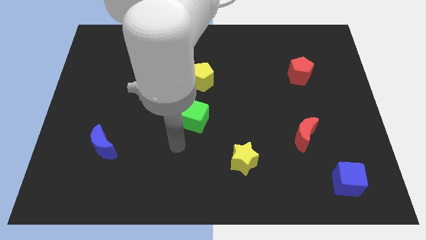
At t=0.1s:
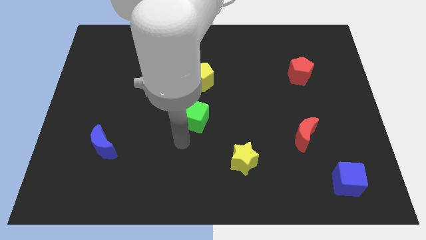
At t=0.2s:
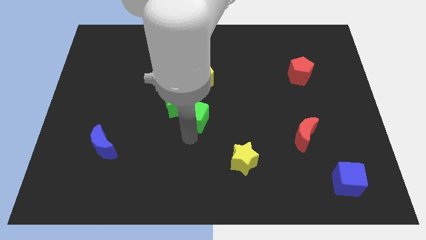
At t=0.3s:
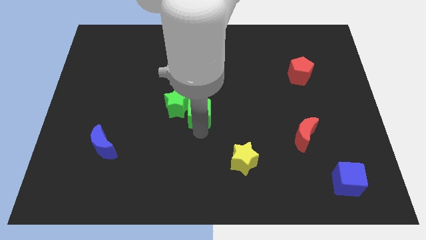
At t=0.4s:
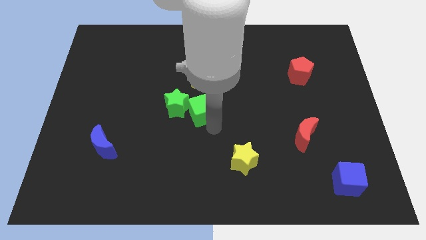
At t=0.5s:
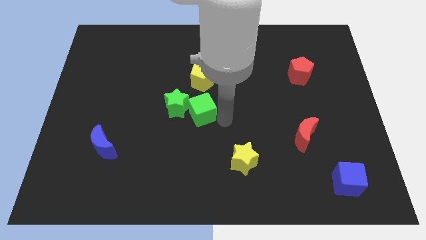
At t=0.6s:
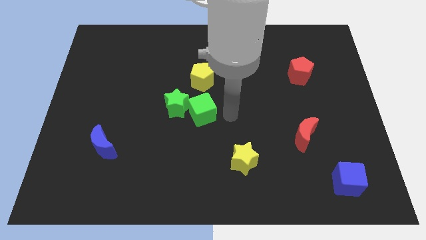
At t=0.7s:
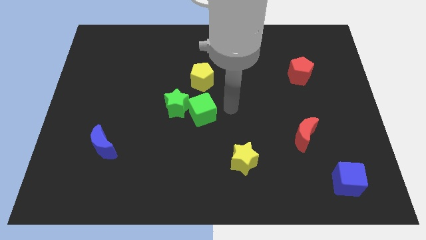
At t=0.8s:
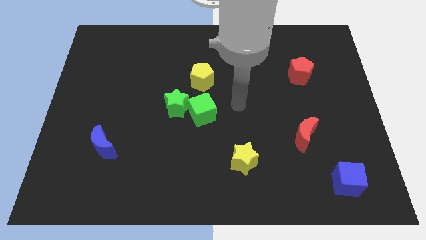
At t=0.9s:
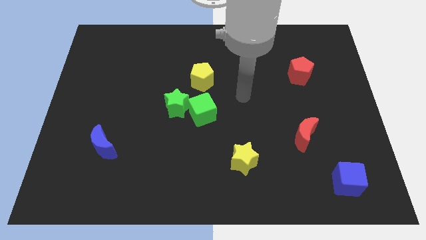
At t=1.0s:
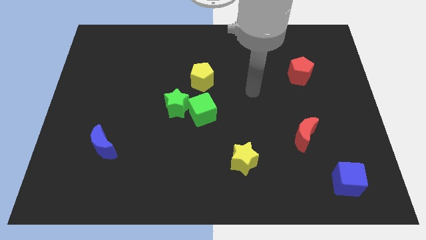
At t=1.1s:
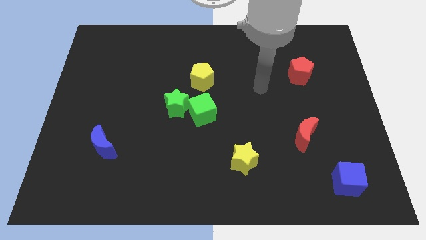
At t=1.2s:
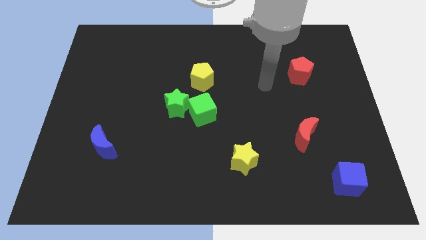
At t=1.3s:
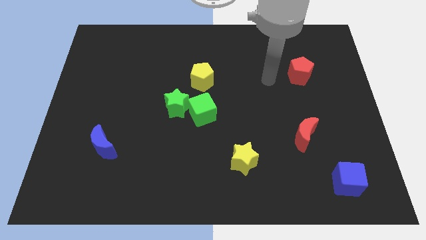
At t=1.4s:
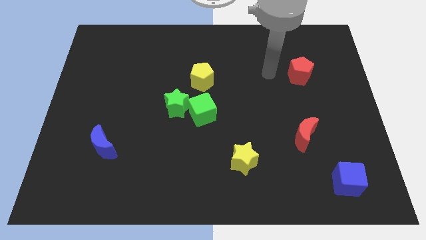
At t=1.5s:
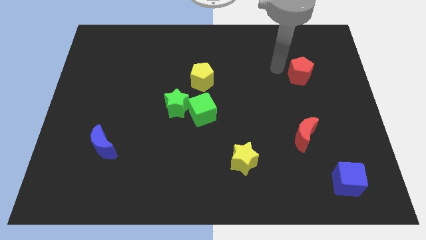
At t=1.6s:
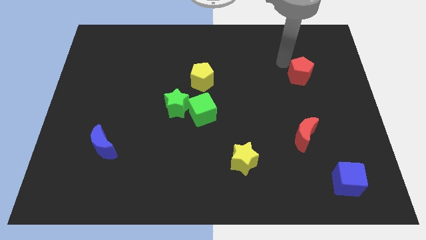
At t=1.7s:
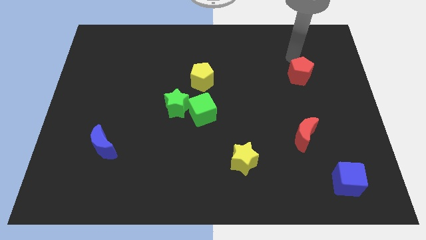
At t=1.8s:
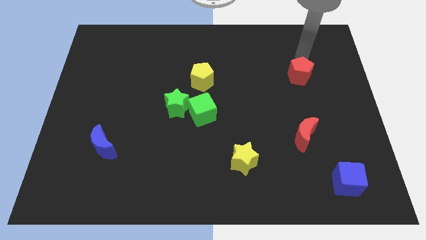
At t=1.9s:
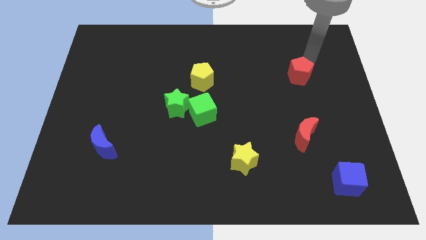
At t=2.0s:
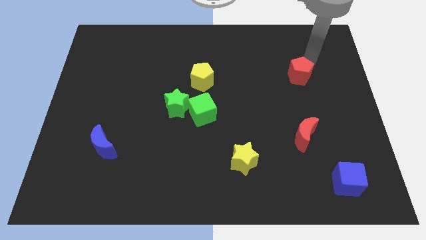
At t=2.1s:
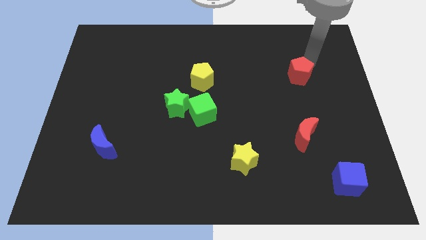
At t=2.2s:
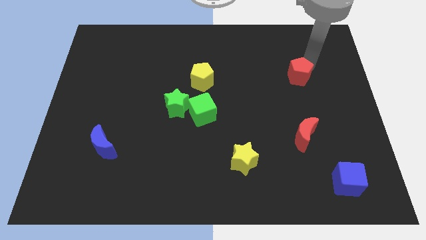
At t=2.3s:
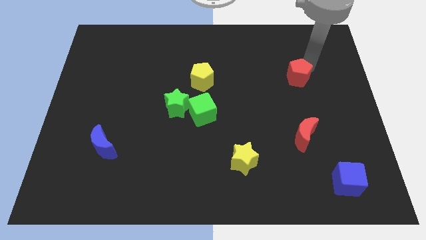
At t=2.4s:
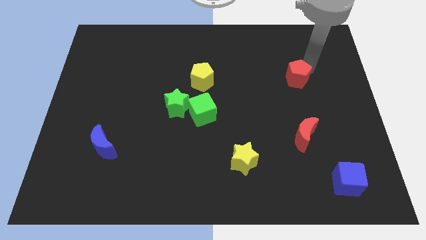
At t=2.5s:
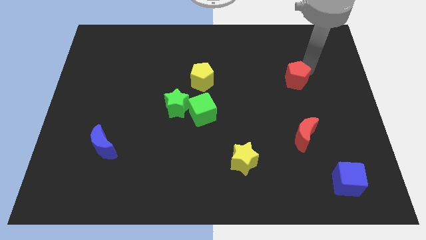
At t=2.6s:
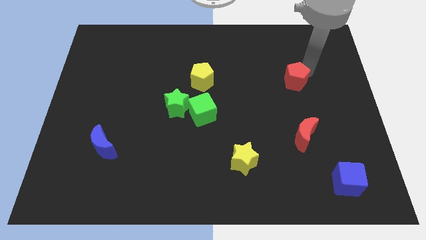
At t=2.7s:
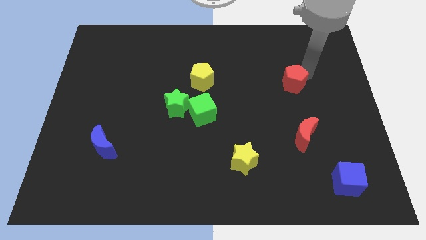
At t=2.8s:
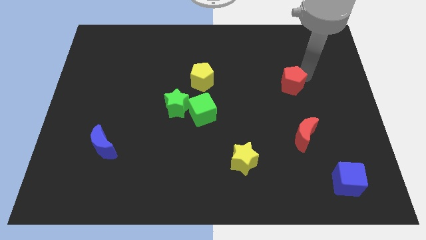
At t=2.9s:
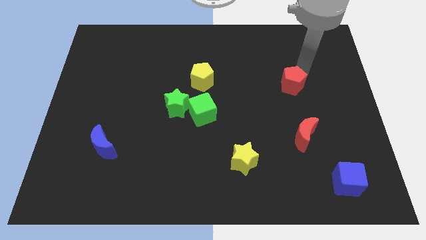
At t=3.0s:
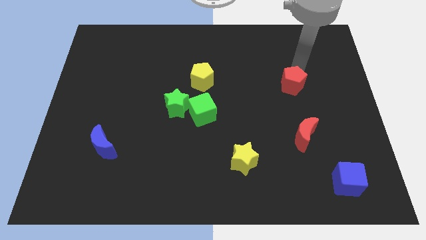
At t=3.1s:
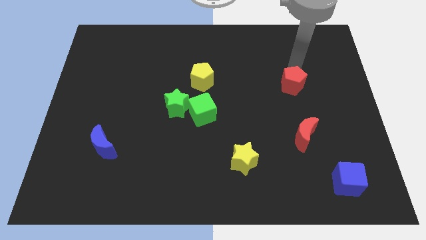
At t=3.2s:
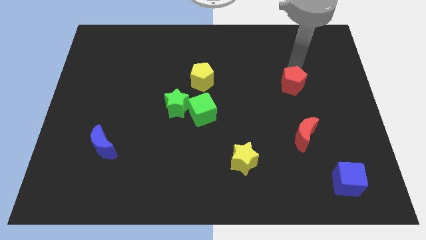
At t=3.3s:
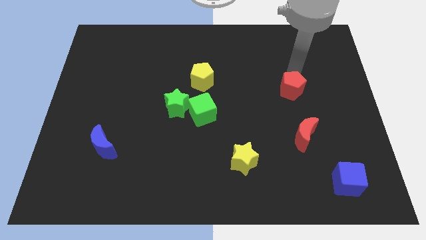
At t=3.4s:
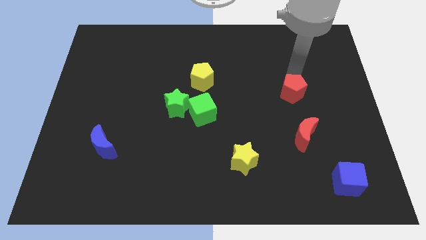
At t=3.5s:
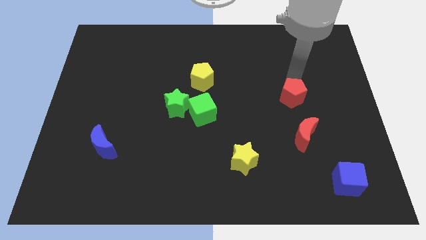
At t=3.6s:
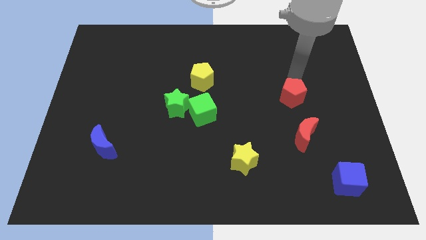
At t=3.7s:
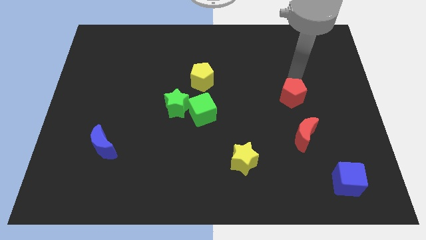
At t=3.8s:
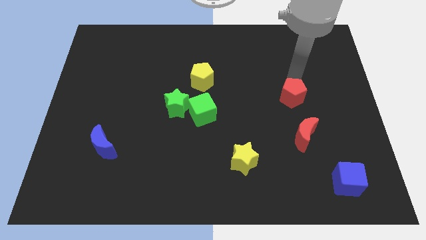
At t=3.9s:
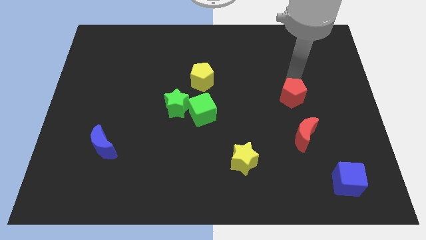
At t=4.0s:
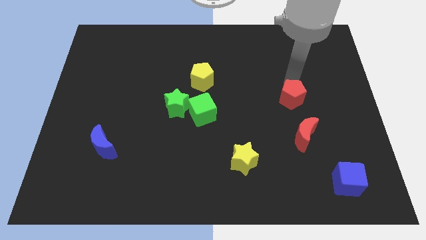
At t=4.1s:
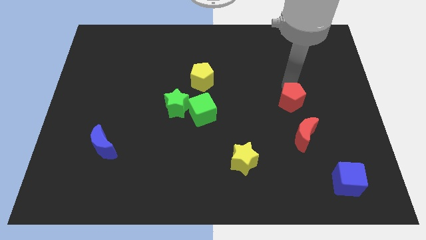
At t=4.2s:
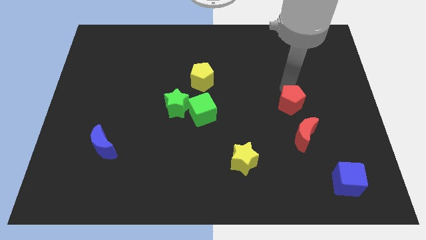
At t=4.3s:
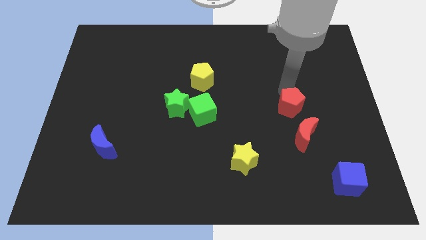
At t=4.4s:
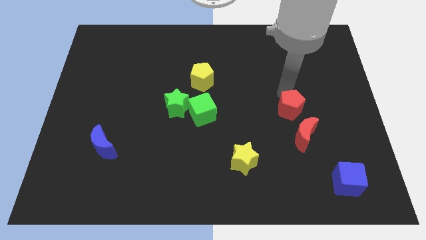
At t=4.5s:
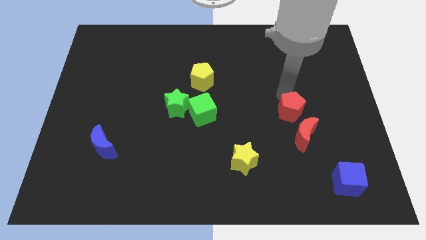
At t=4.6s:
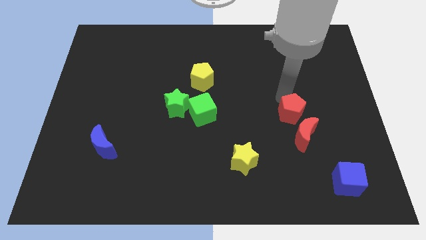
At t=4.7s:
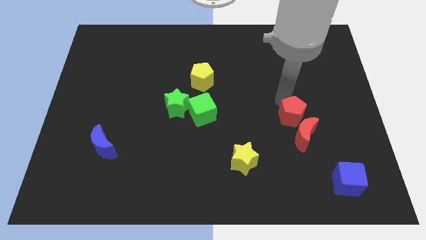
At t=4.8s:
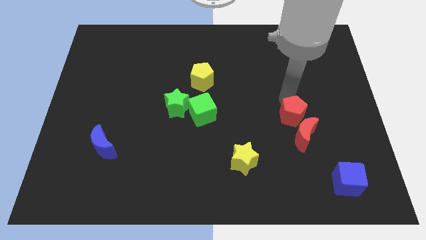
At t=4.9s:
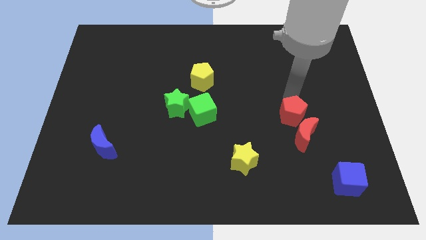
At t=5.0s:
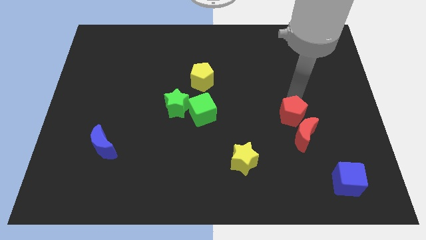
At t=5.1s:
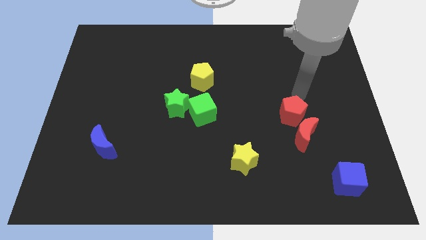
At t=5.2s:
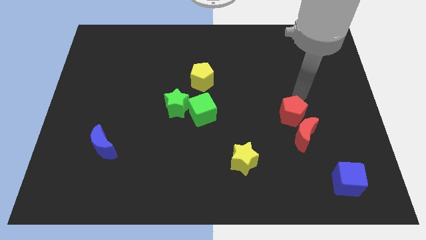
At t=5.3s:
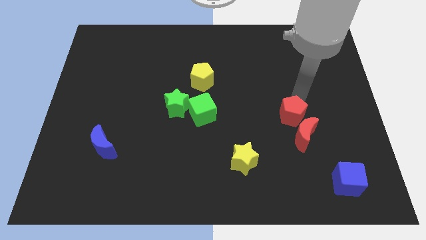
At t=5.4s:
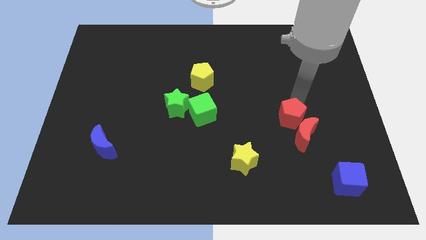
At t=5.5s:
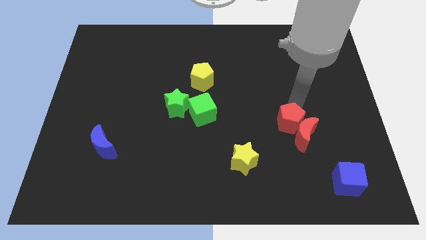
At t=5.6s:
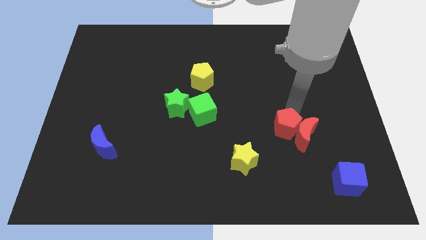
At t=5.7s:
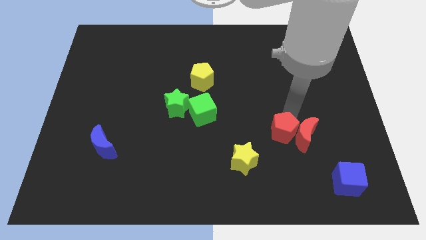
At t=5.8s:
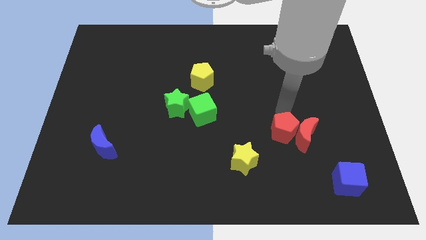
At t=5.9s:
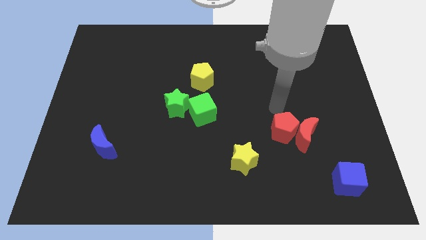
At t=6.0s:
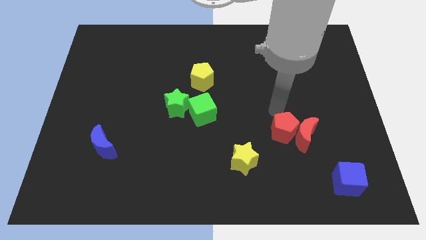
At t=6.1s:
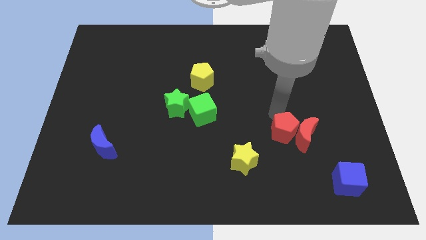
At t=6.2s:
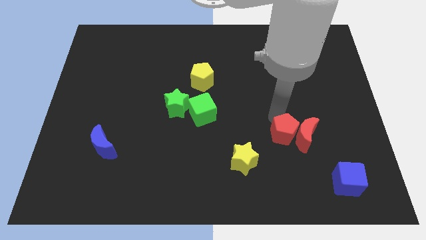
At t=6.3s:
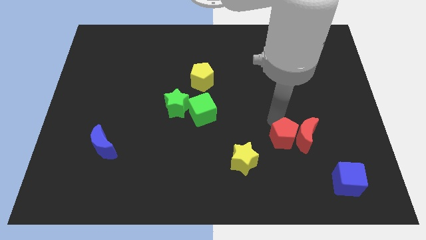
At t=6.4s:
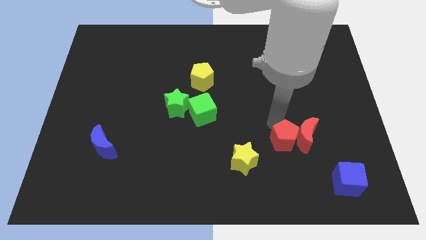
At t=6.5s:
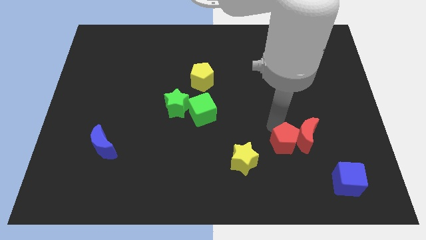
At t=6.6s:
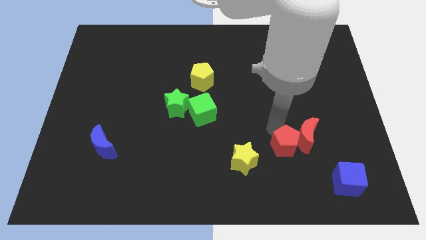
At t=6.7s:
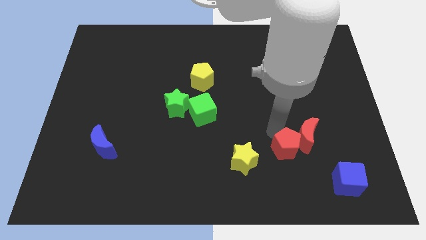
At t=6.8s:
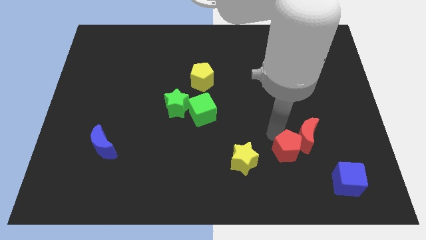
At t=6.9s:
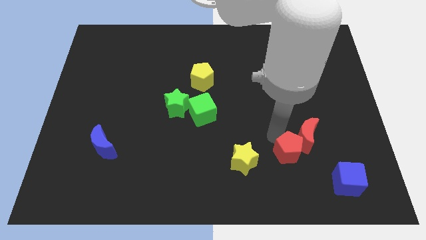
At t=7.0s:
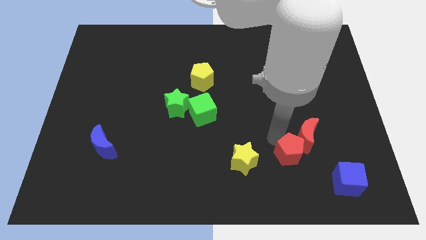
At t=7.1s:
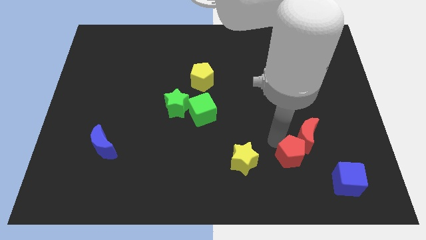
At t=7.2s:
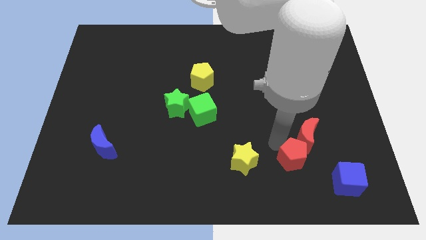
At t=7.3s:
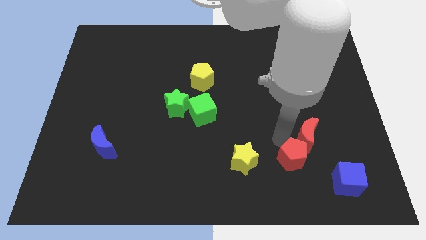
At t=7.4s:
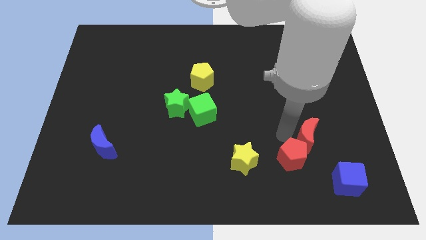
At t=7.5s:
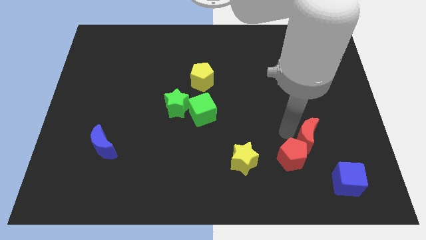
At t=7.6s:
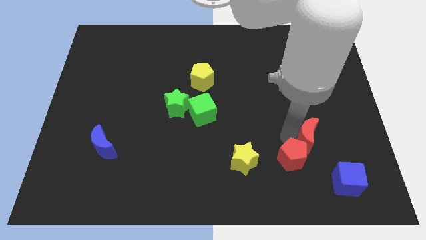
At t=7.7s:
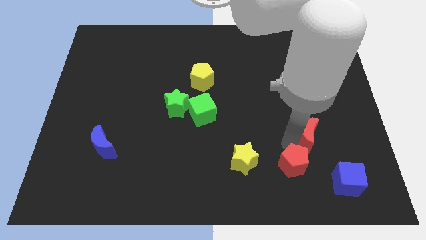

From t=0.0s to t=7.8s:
move the red pentagon just left of the blue cube
